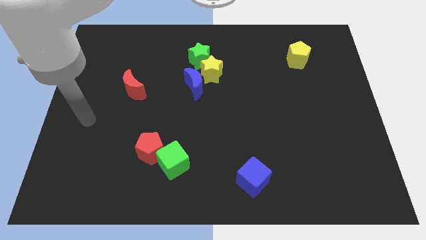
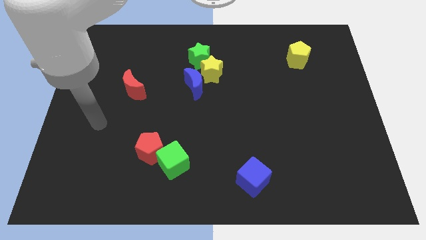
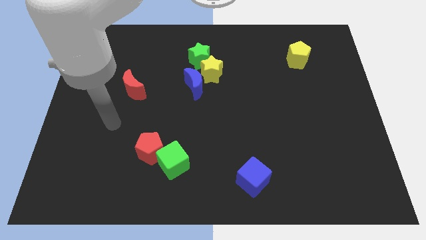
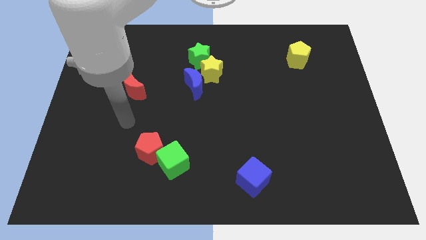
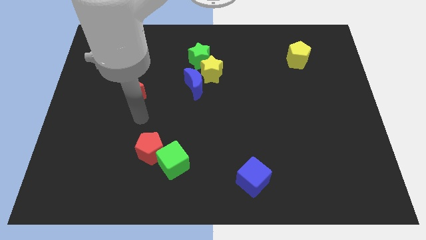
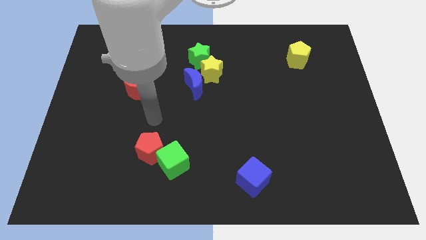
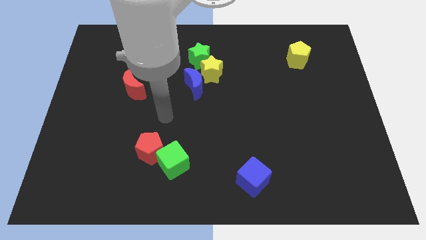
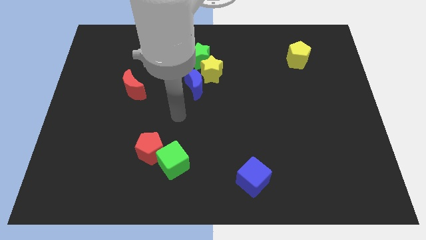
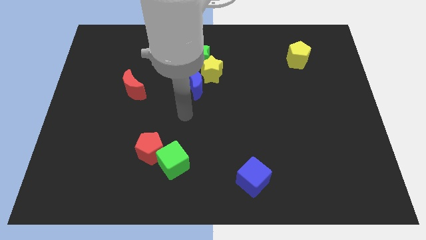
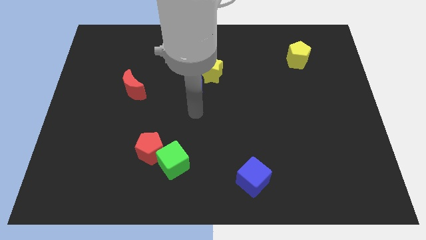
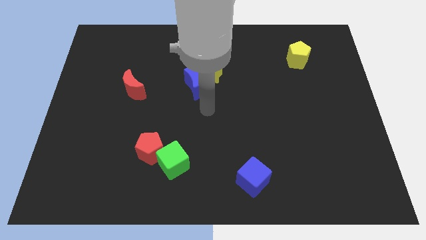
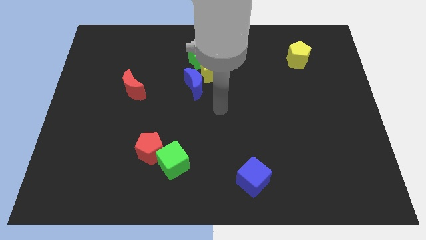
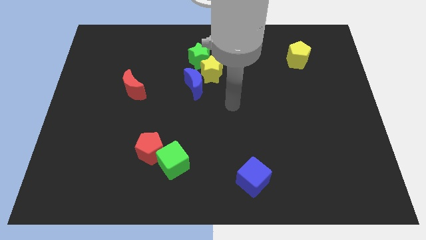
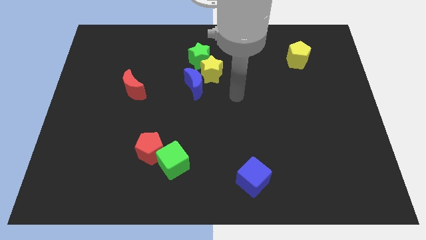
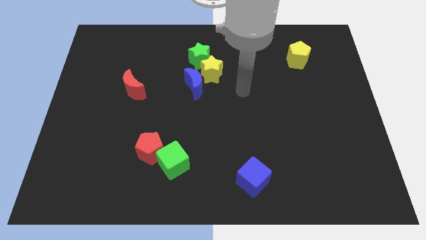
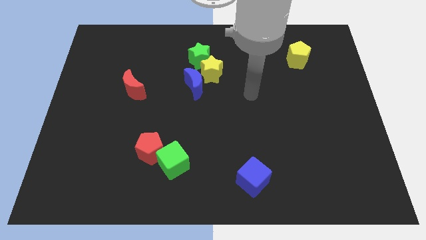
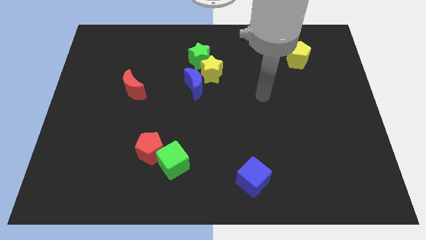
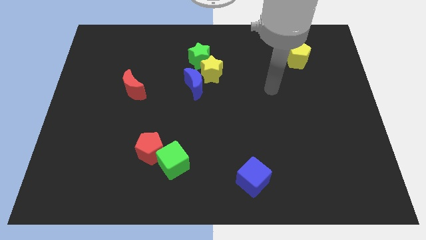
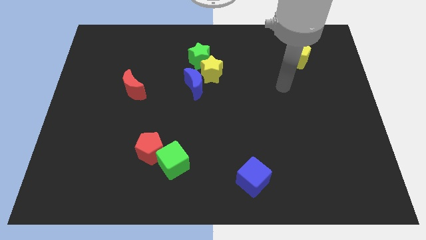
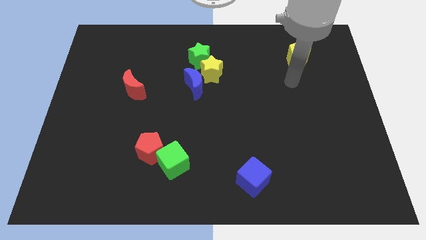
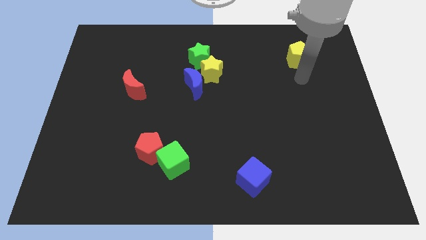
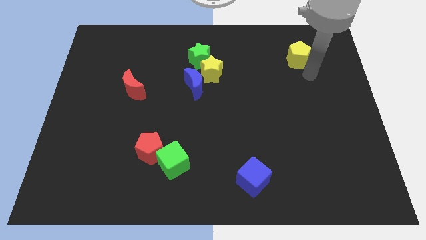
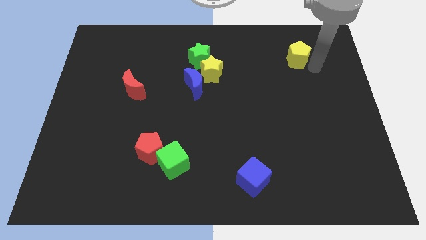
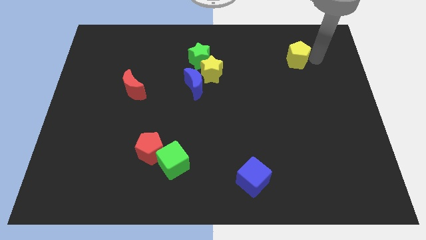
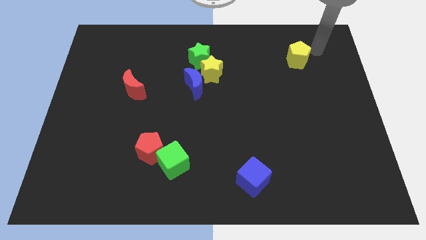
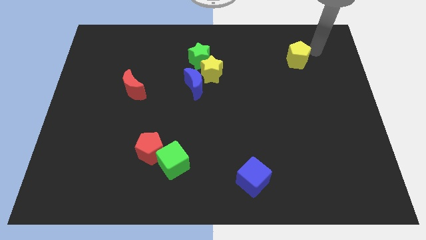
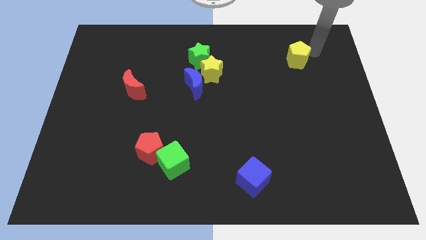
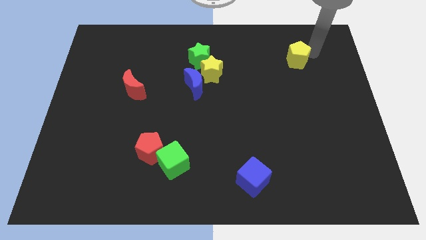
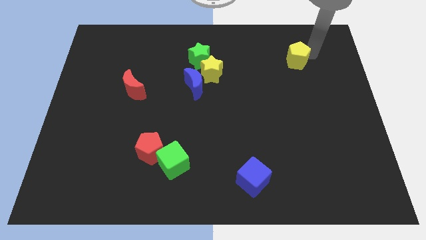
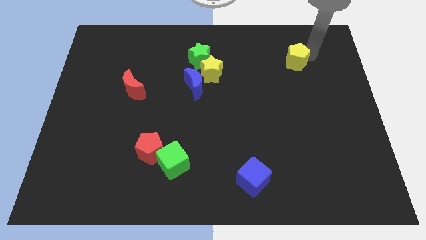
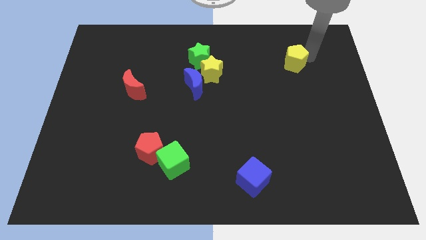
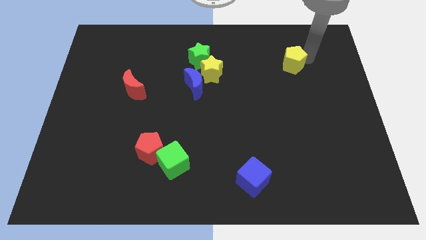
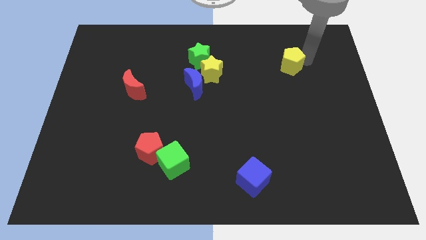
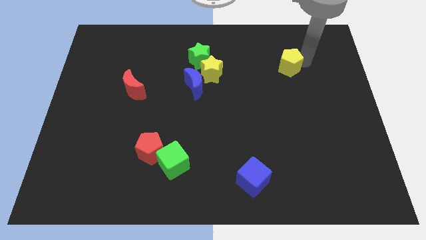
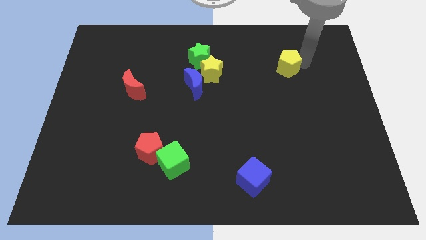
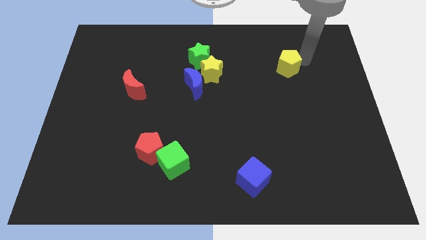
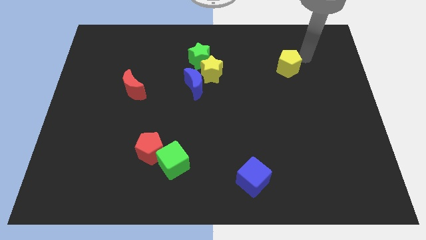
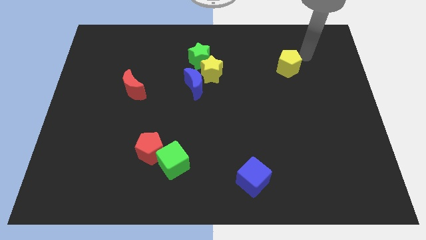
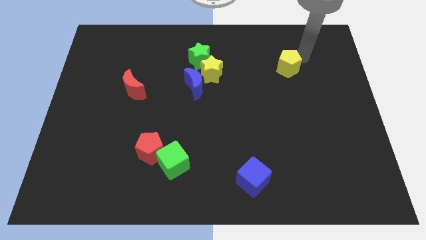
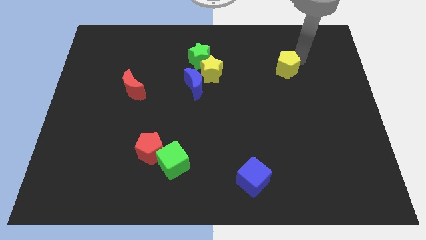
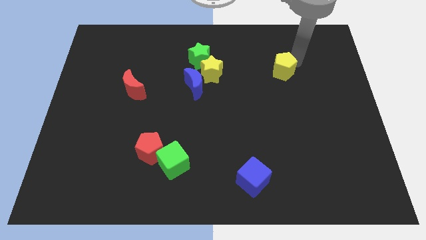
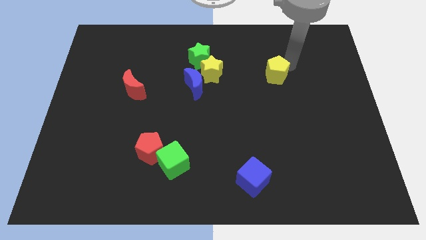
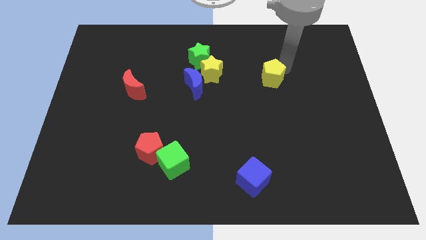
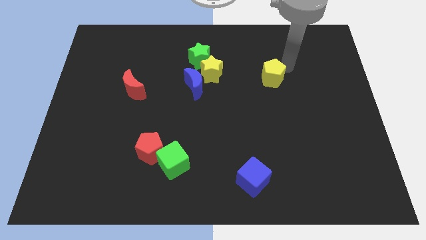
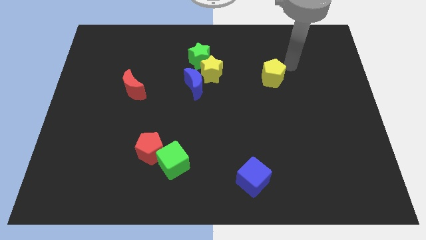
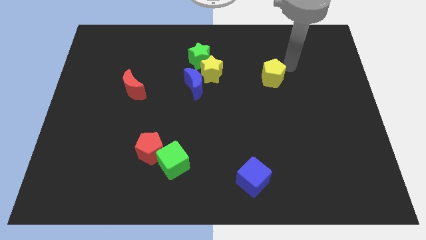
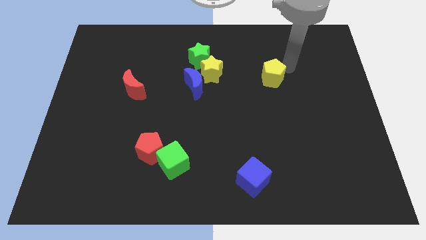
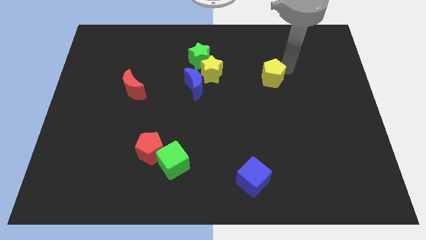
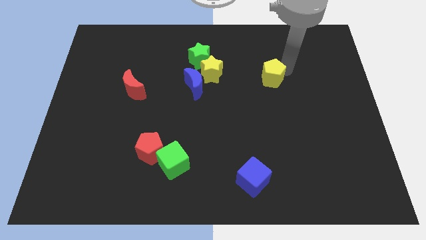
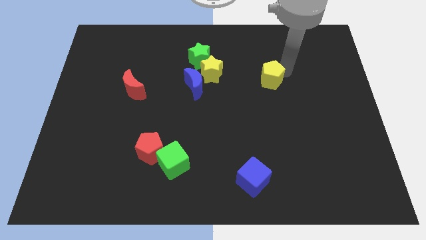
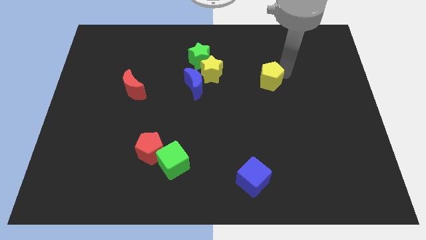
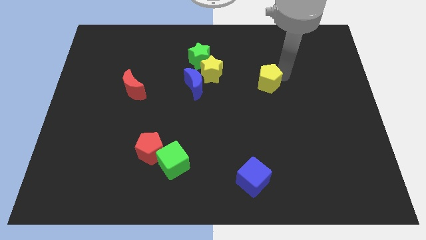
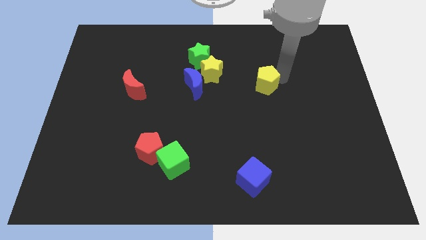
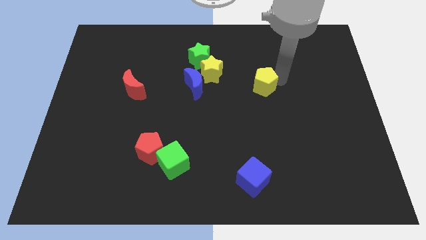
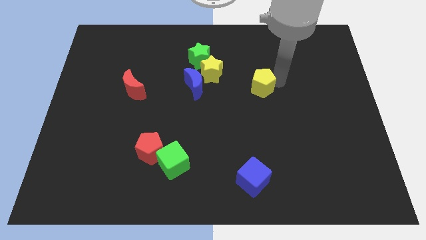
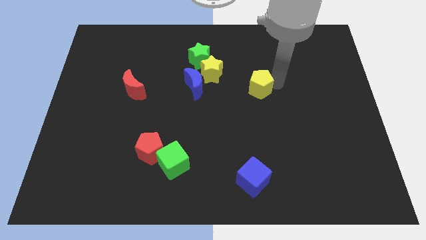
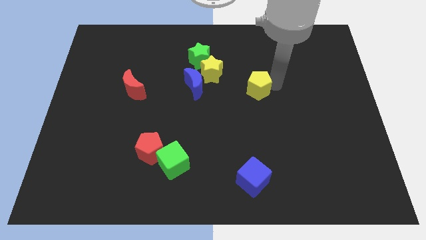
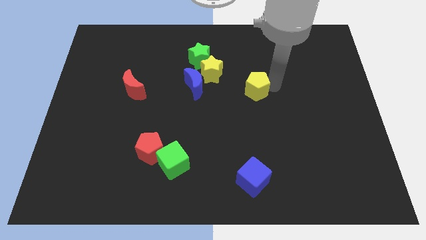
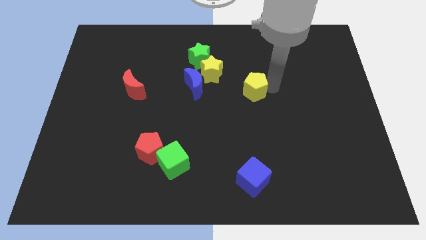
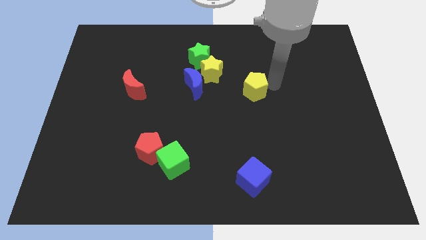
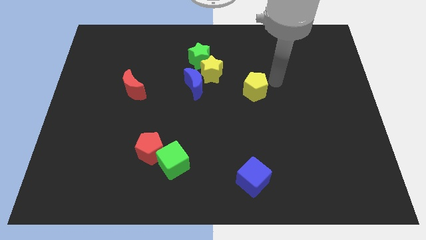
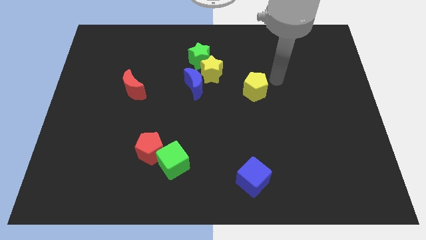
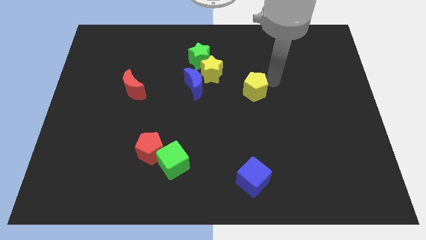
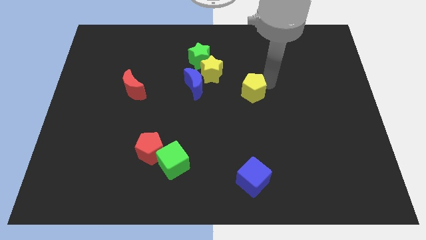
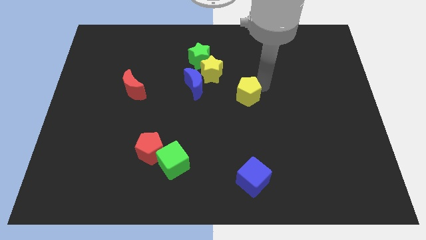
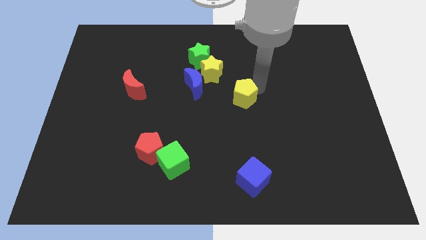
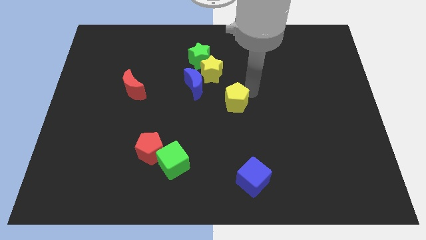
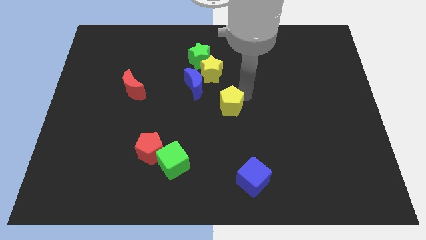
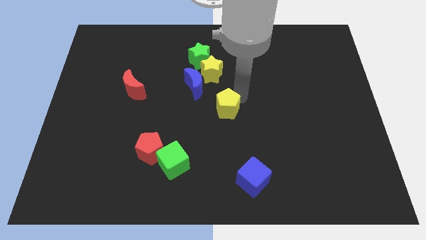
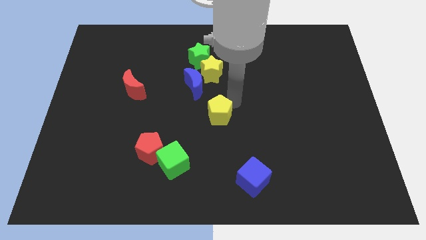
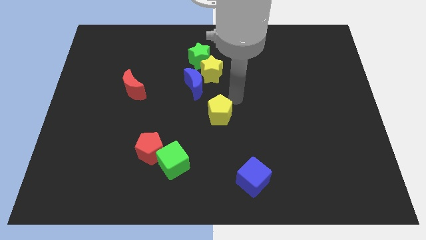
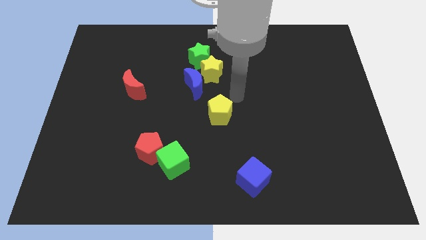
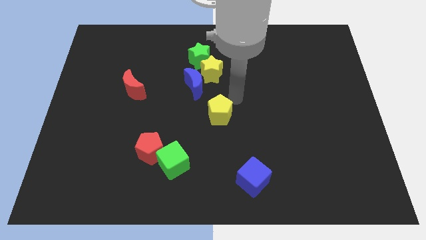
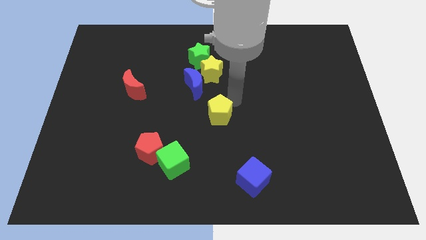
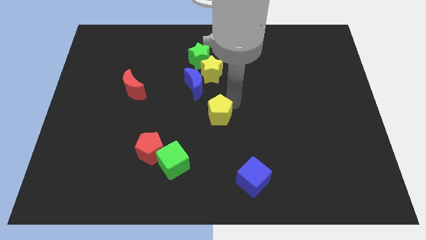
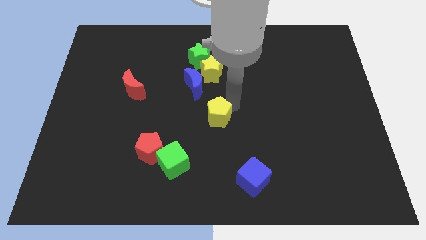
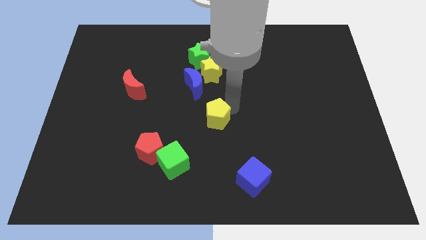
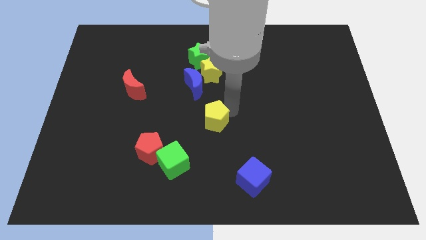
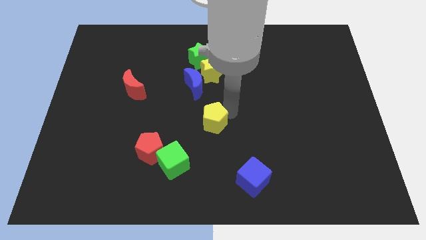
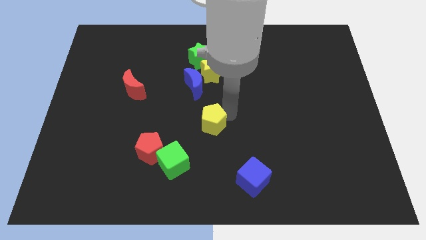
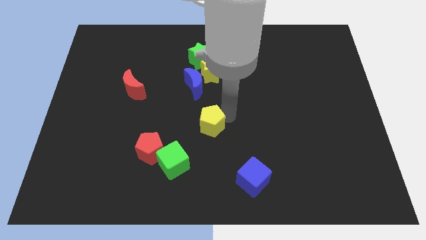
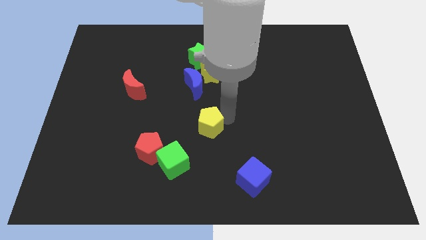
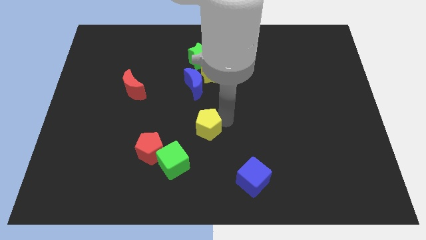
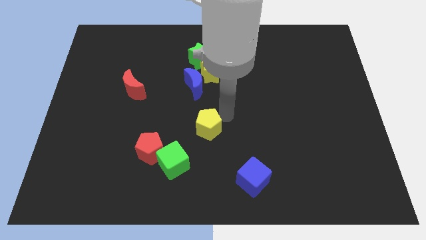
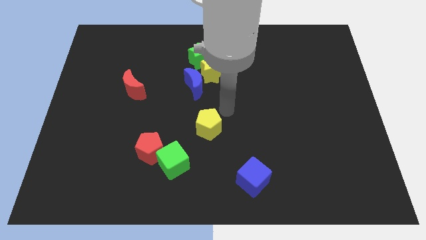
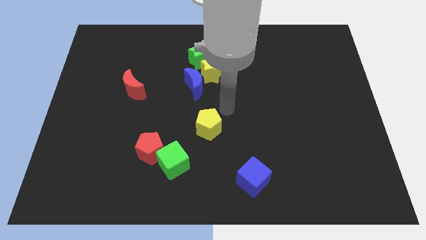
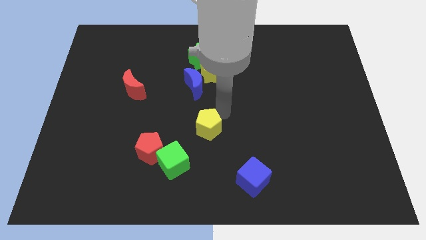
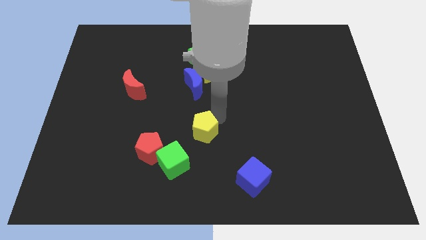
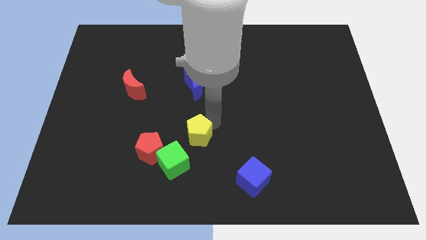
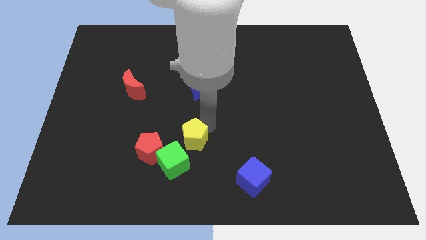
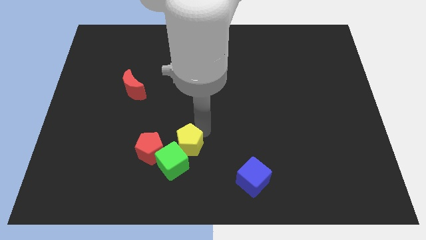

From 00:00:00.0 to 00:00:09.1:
push the yellow pentagon next to the green cube
